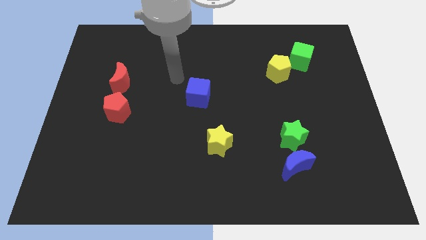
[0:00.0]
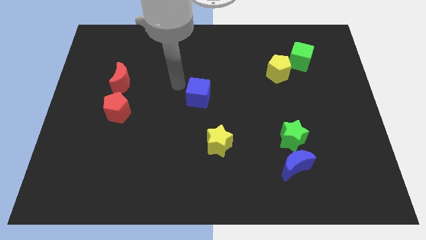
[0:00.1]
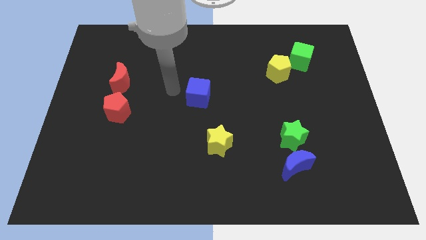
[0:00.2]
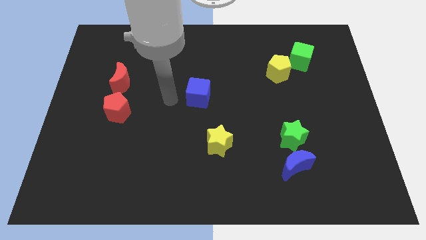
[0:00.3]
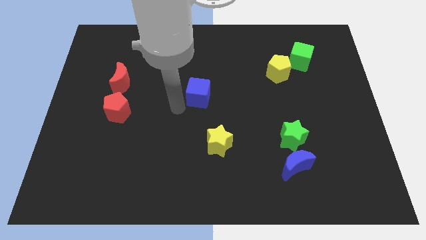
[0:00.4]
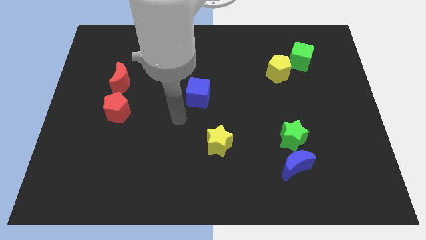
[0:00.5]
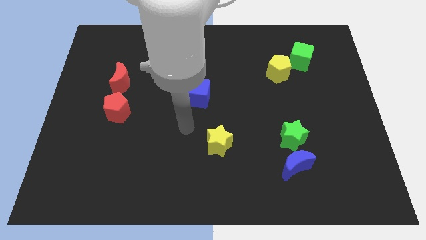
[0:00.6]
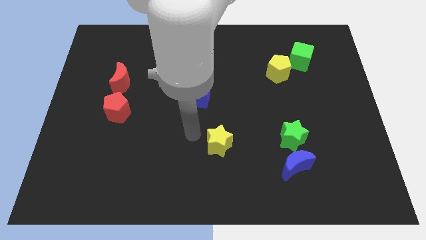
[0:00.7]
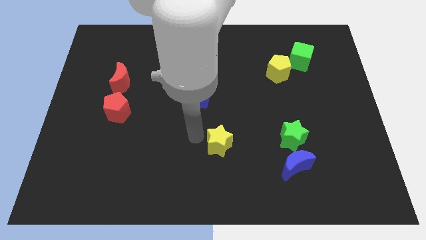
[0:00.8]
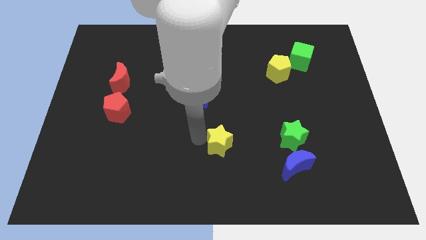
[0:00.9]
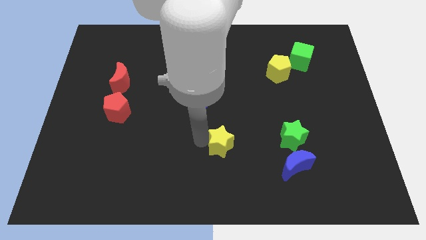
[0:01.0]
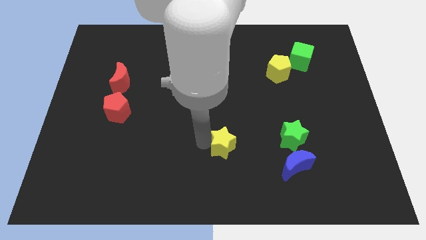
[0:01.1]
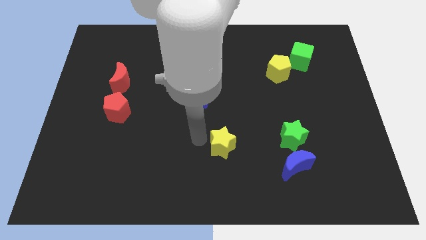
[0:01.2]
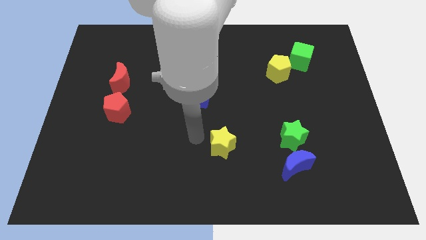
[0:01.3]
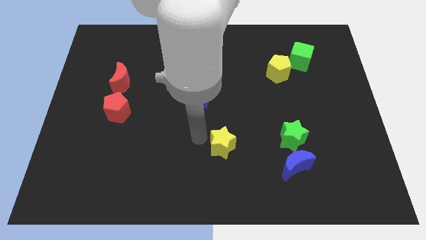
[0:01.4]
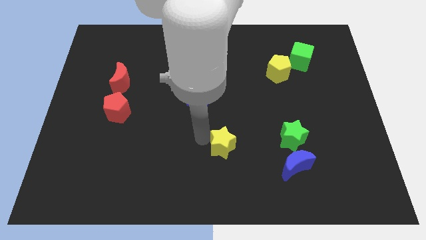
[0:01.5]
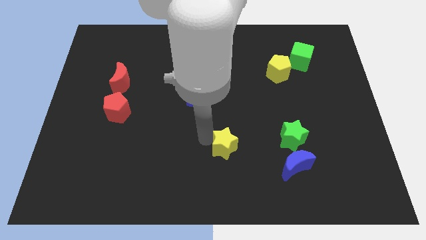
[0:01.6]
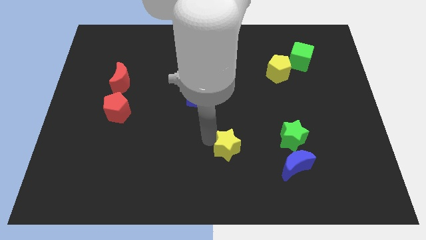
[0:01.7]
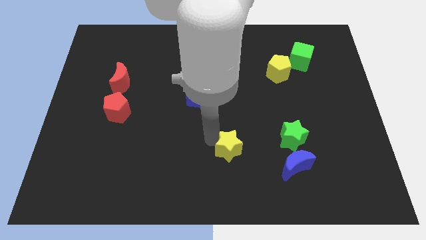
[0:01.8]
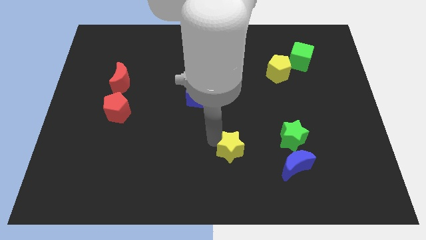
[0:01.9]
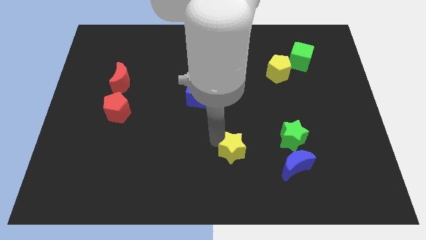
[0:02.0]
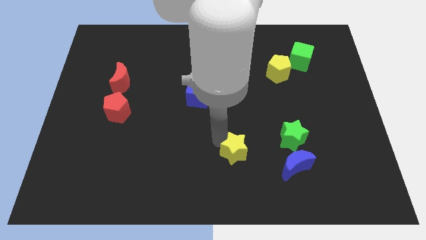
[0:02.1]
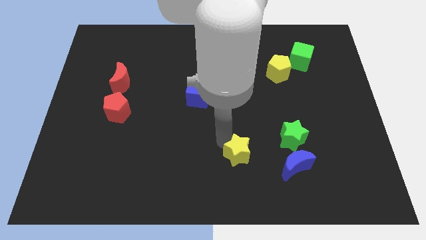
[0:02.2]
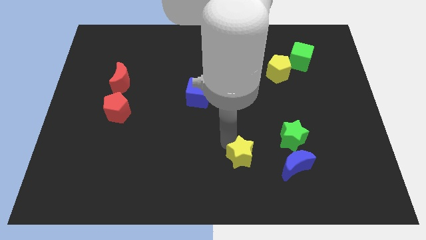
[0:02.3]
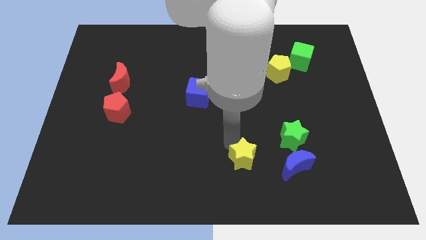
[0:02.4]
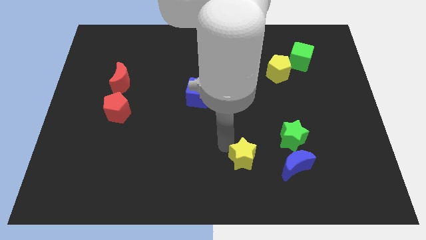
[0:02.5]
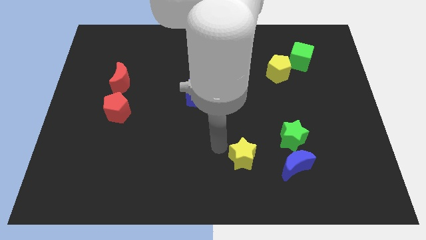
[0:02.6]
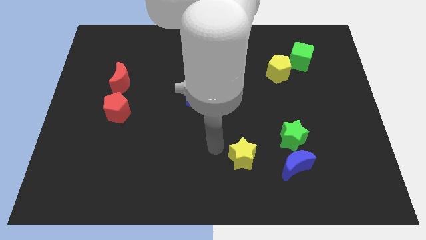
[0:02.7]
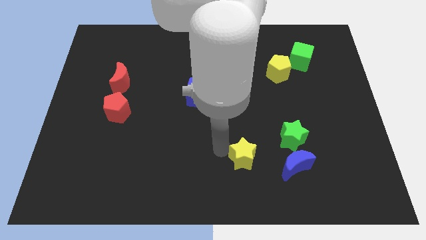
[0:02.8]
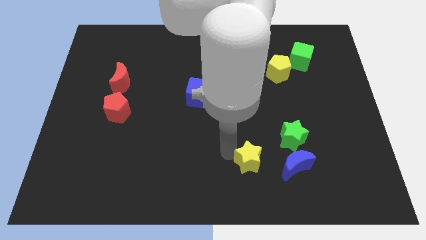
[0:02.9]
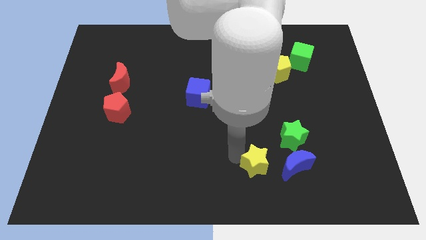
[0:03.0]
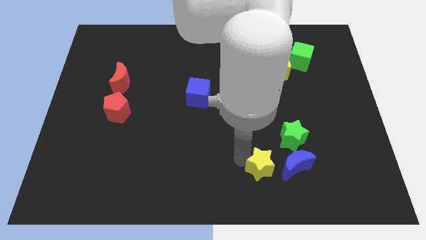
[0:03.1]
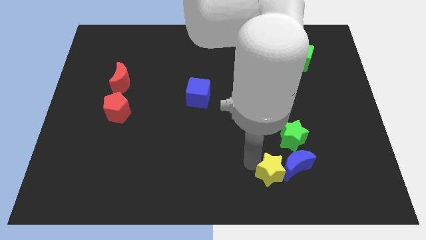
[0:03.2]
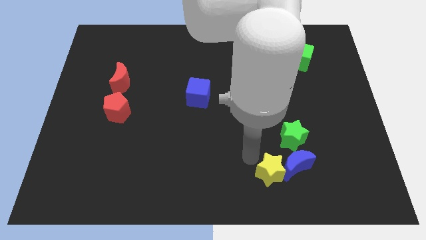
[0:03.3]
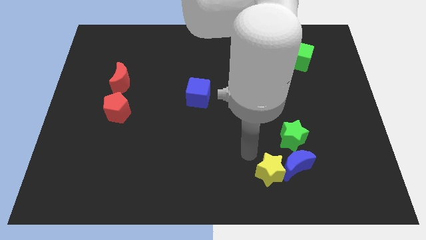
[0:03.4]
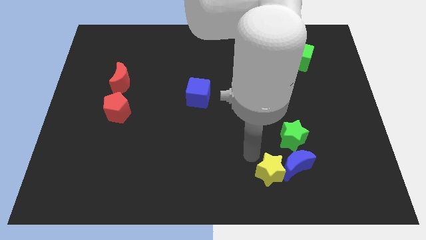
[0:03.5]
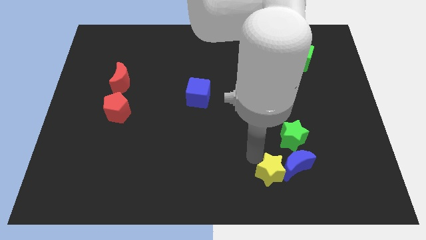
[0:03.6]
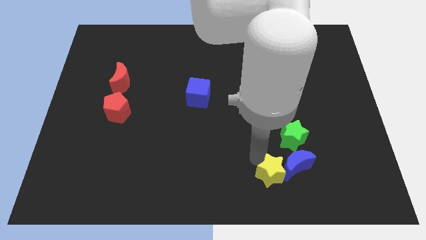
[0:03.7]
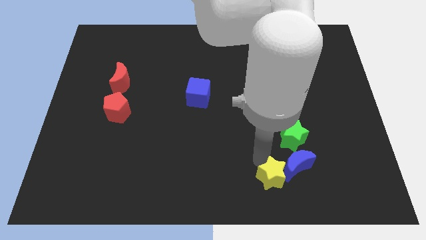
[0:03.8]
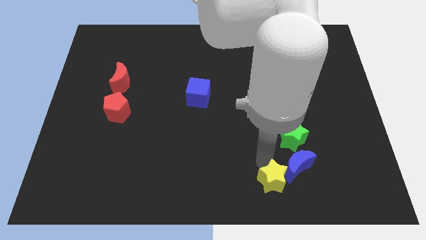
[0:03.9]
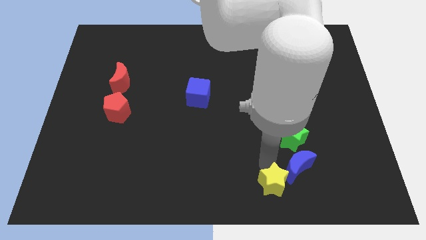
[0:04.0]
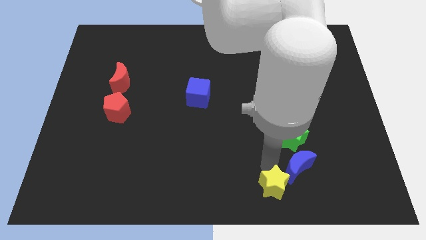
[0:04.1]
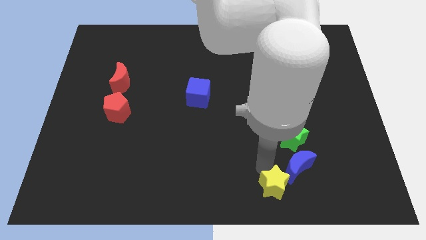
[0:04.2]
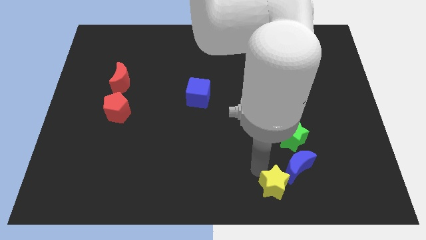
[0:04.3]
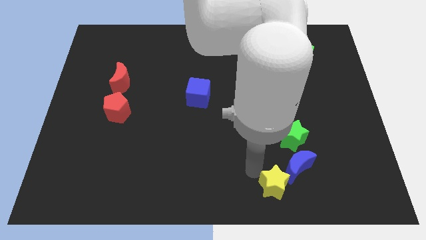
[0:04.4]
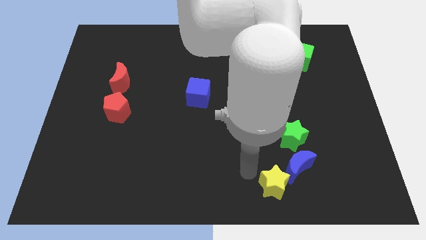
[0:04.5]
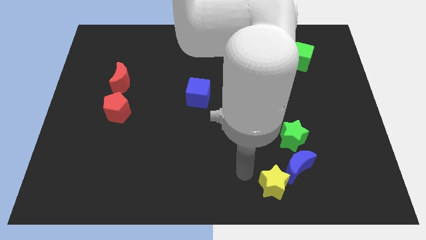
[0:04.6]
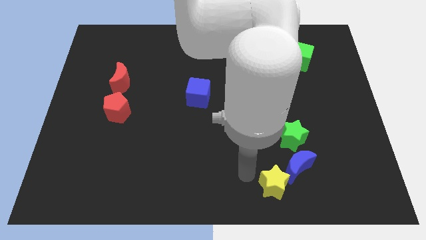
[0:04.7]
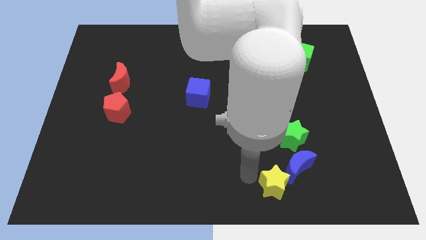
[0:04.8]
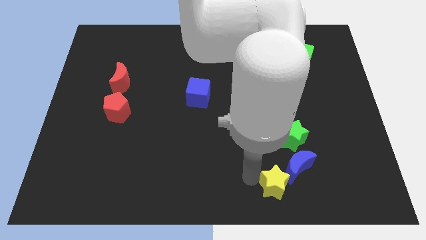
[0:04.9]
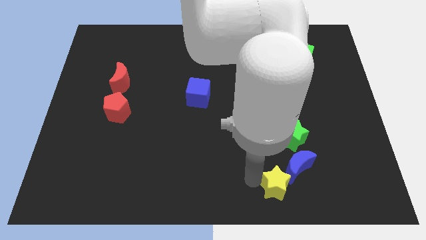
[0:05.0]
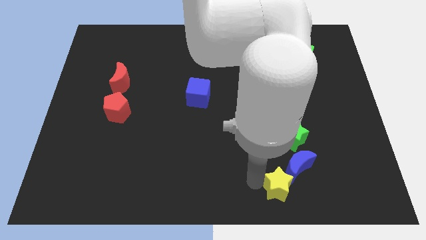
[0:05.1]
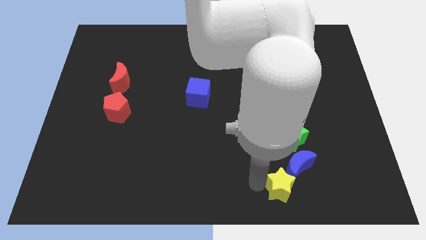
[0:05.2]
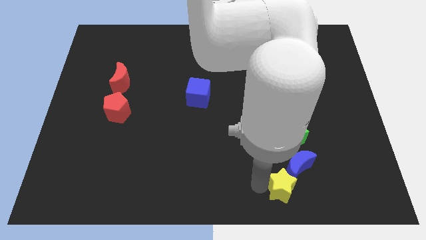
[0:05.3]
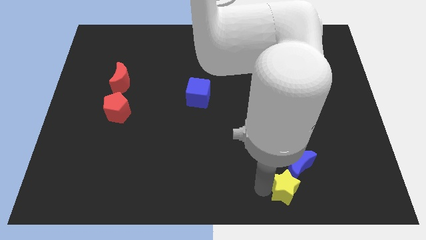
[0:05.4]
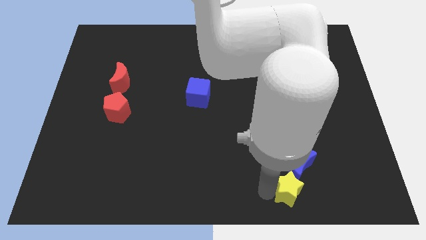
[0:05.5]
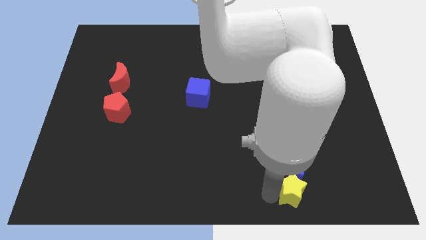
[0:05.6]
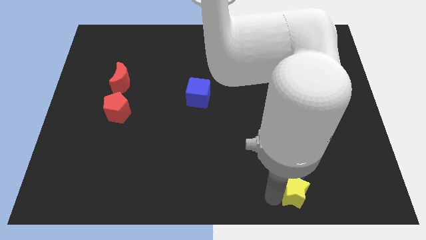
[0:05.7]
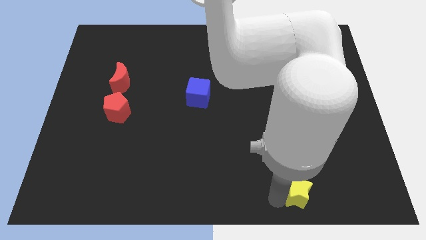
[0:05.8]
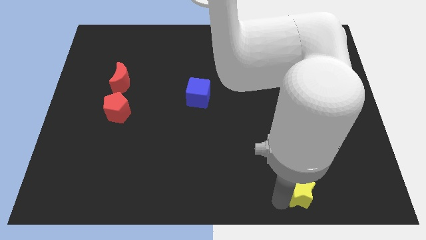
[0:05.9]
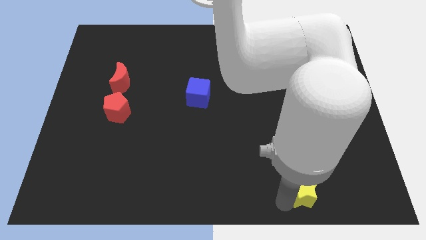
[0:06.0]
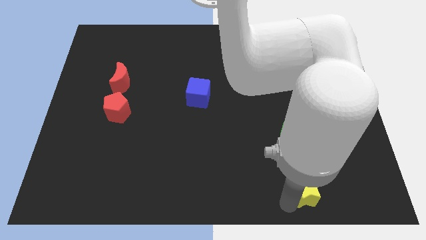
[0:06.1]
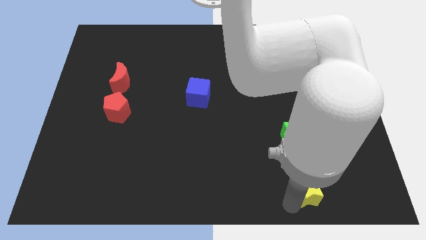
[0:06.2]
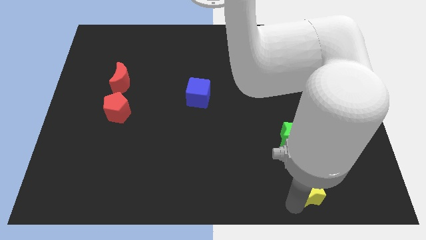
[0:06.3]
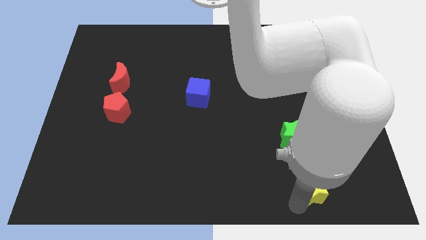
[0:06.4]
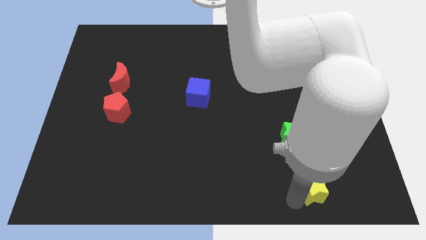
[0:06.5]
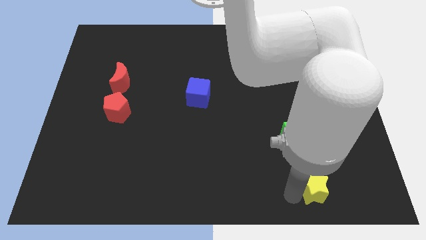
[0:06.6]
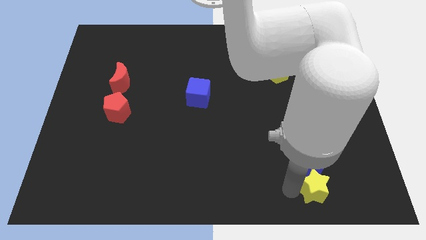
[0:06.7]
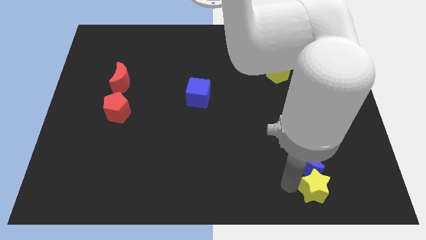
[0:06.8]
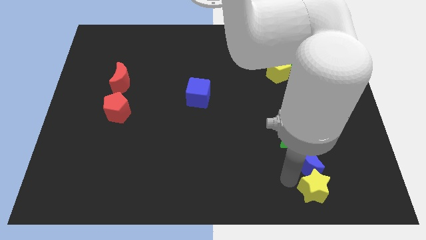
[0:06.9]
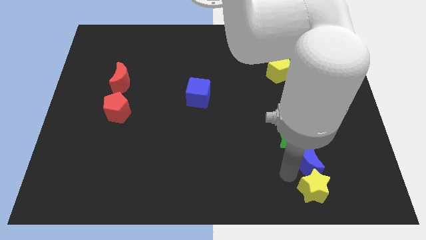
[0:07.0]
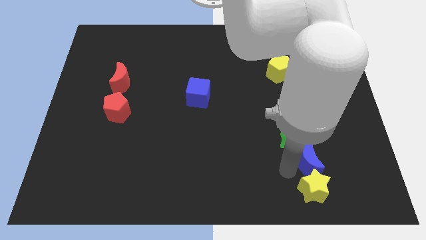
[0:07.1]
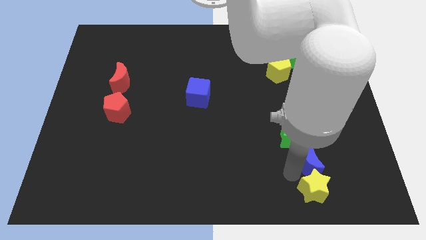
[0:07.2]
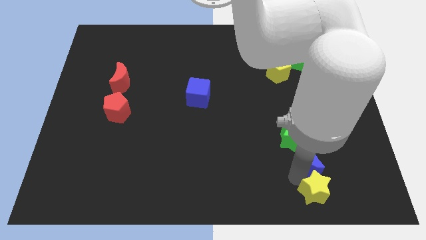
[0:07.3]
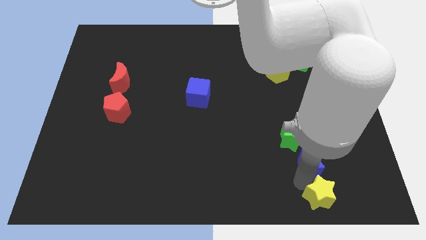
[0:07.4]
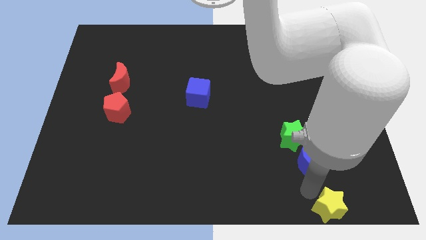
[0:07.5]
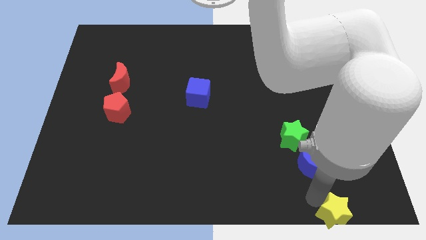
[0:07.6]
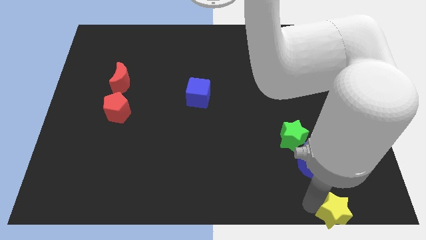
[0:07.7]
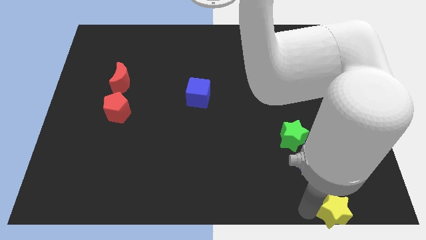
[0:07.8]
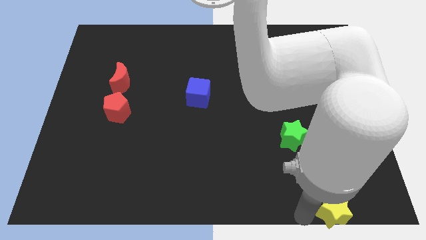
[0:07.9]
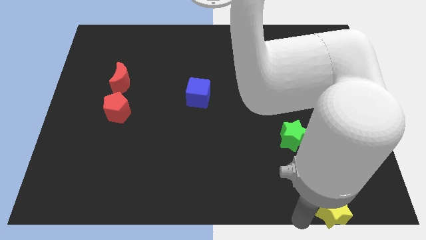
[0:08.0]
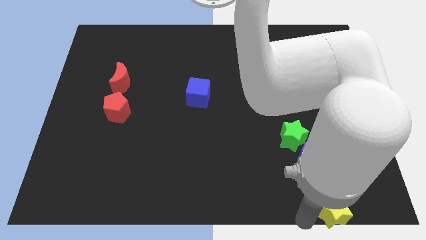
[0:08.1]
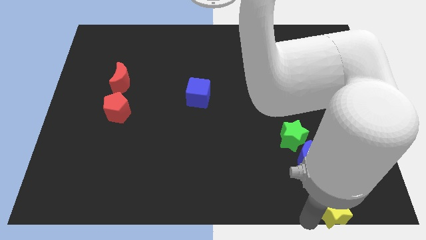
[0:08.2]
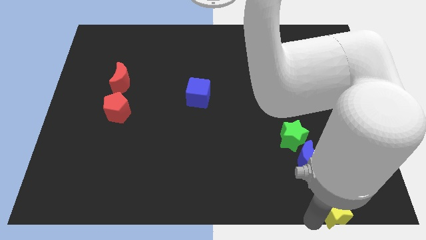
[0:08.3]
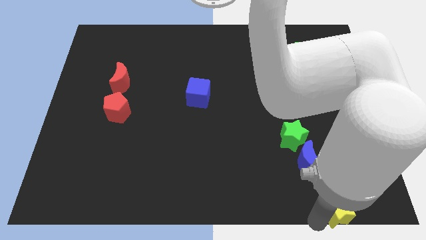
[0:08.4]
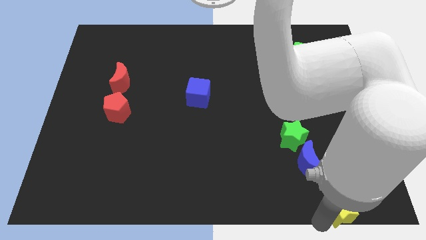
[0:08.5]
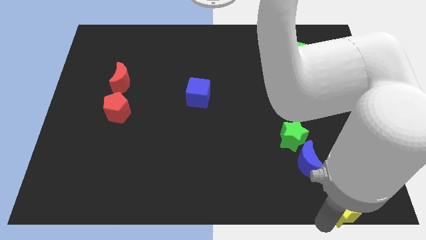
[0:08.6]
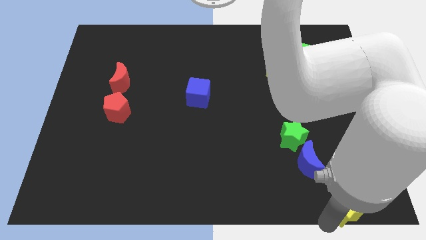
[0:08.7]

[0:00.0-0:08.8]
put the yellow star to the lower right corner
